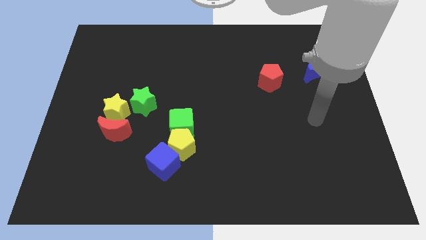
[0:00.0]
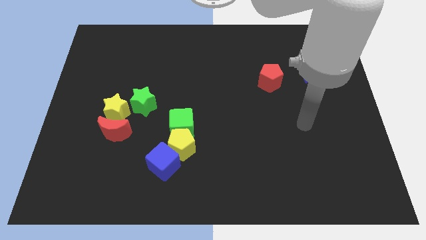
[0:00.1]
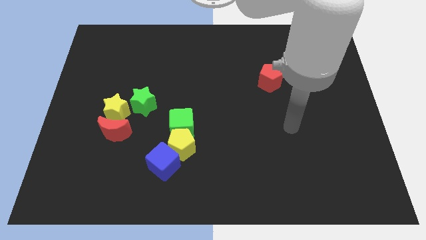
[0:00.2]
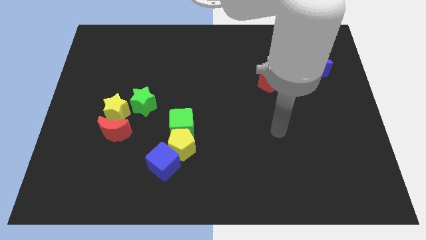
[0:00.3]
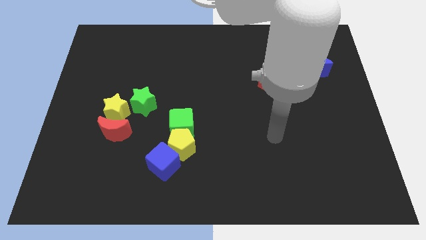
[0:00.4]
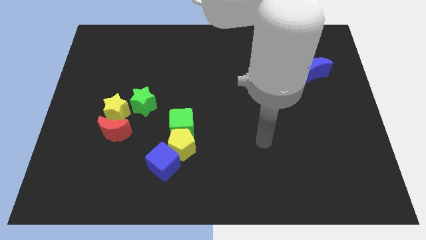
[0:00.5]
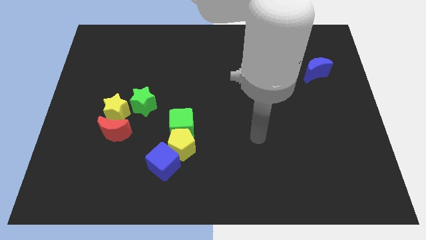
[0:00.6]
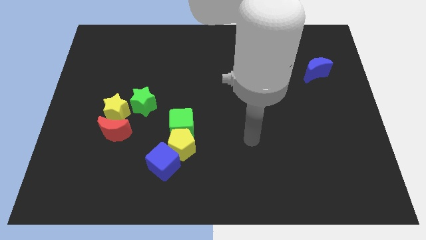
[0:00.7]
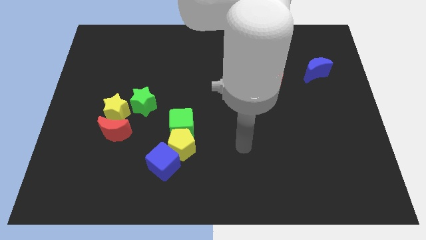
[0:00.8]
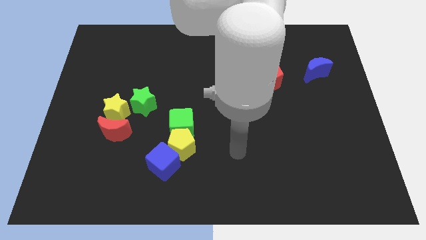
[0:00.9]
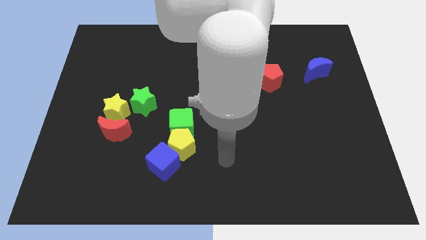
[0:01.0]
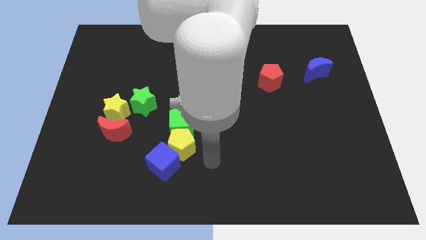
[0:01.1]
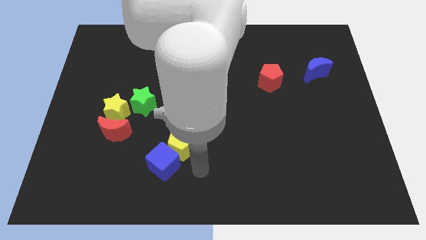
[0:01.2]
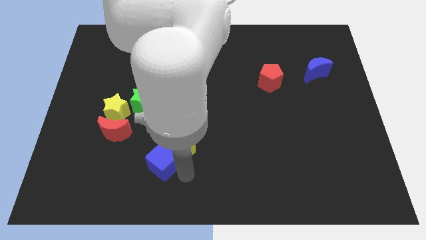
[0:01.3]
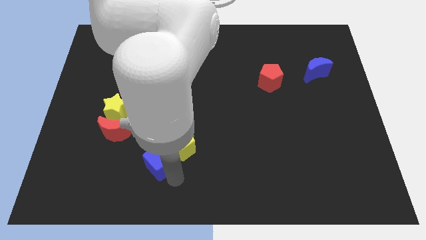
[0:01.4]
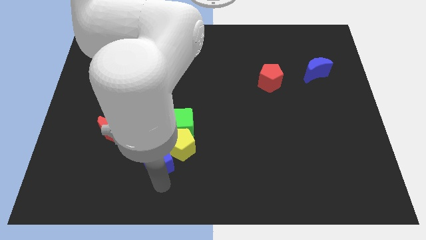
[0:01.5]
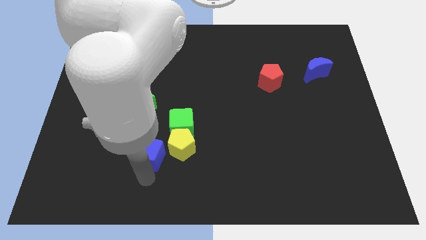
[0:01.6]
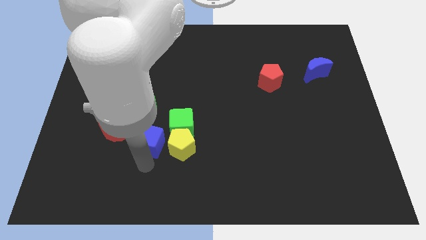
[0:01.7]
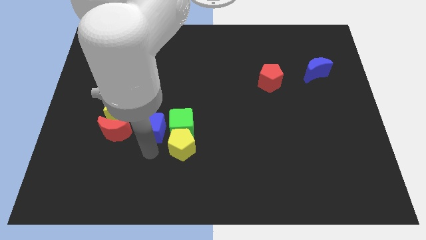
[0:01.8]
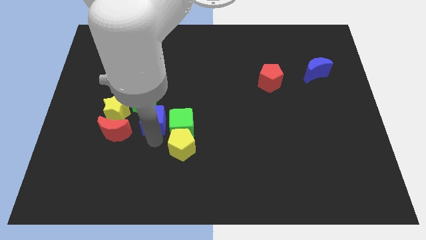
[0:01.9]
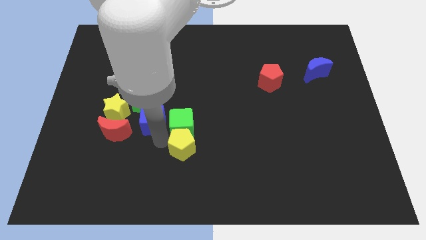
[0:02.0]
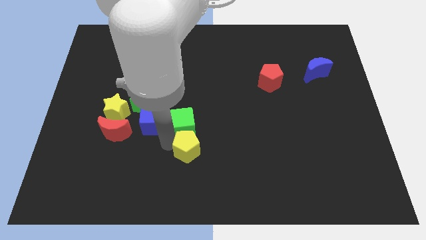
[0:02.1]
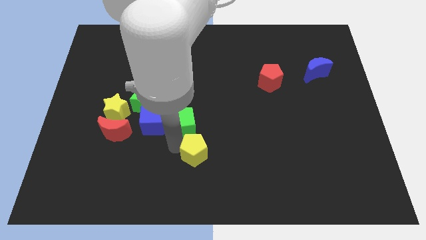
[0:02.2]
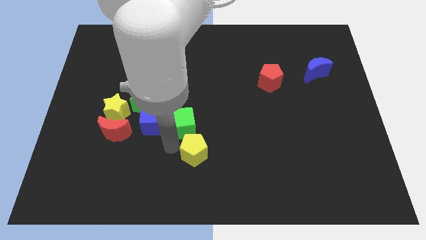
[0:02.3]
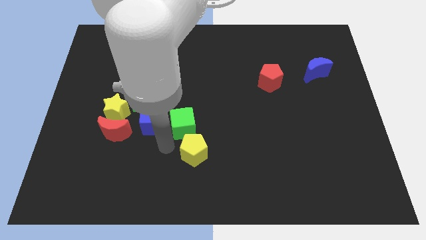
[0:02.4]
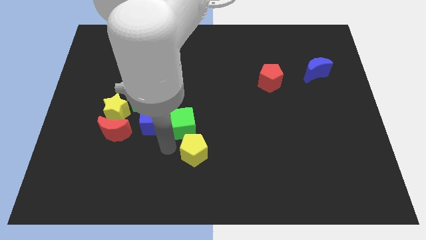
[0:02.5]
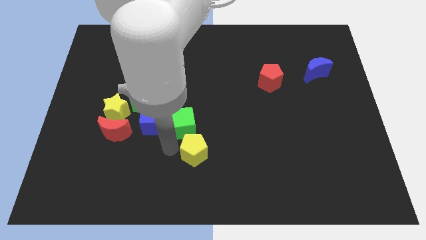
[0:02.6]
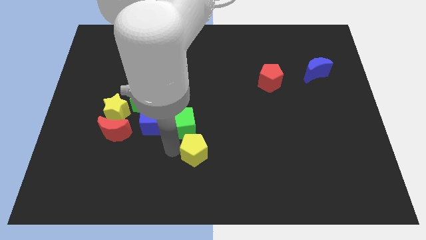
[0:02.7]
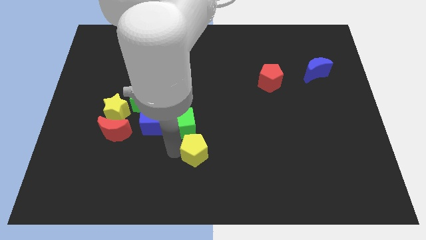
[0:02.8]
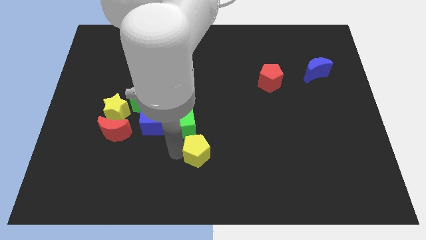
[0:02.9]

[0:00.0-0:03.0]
pull the yellow pentagon apart from the blue cube and green cube

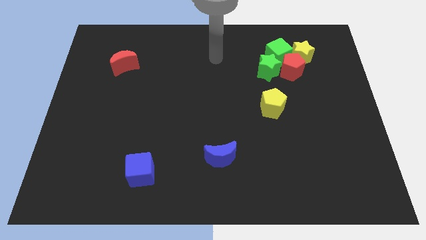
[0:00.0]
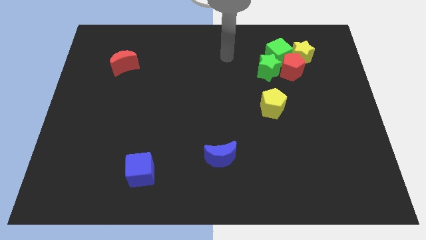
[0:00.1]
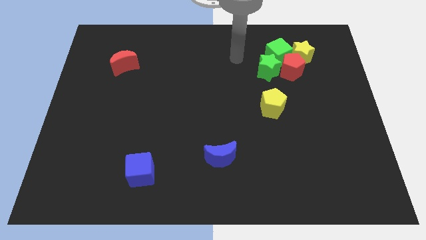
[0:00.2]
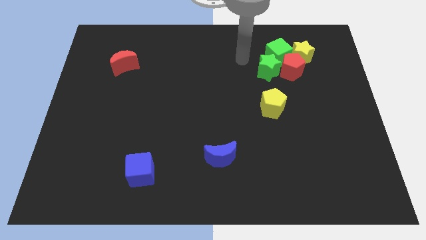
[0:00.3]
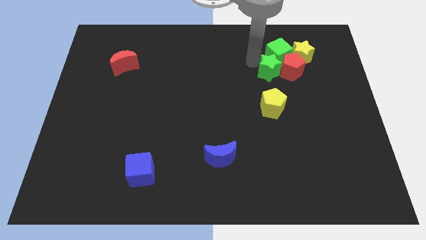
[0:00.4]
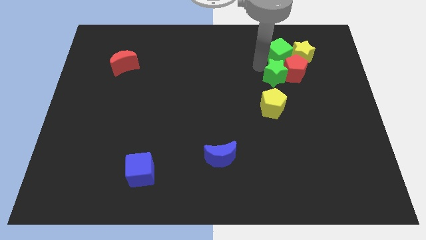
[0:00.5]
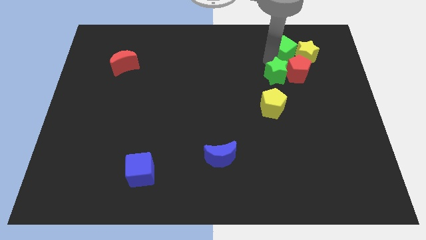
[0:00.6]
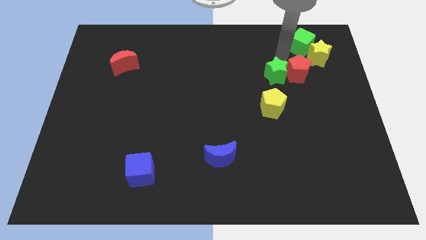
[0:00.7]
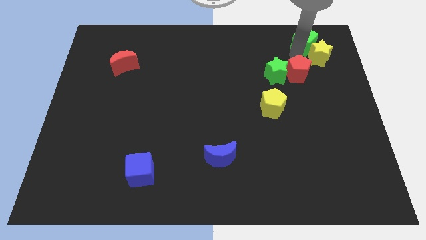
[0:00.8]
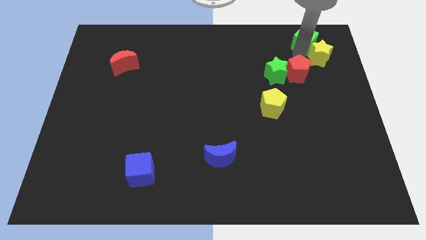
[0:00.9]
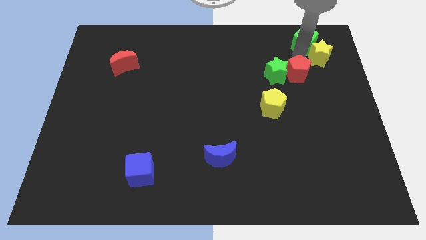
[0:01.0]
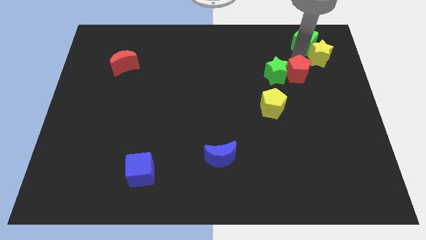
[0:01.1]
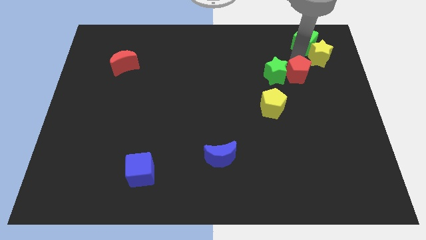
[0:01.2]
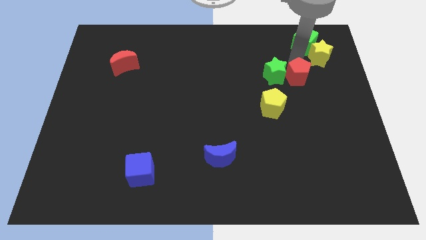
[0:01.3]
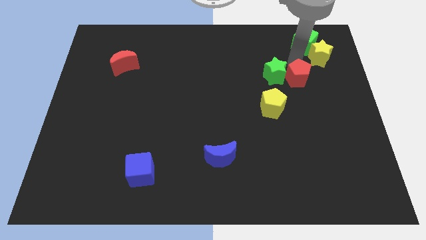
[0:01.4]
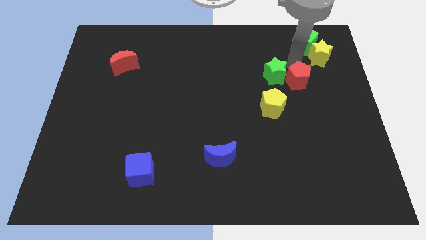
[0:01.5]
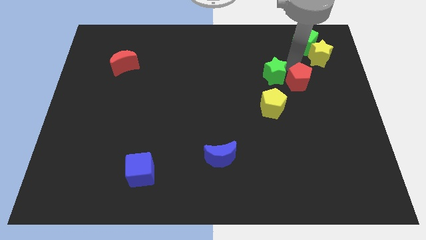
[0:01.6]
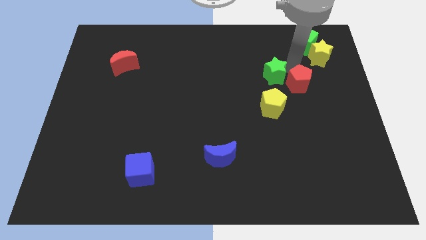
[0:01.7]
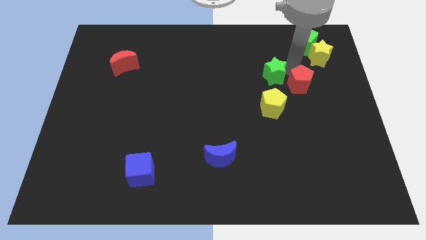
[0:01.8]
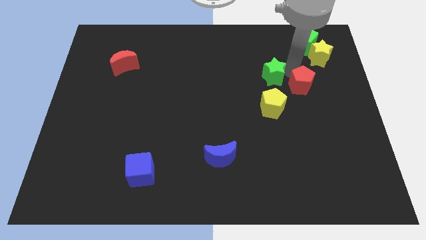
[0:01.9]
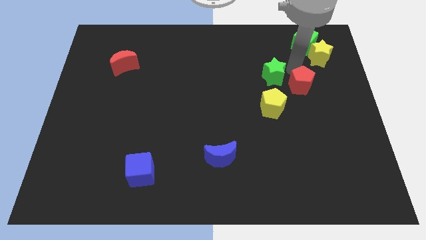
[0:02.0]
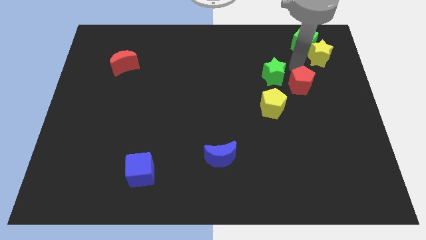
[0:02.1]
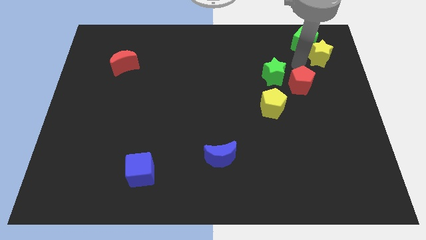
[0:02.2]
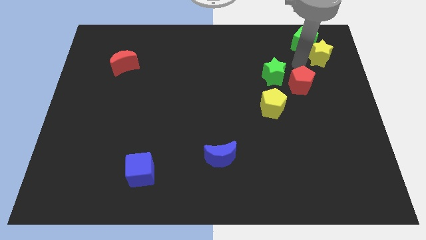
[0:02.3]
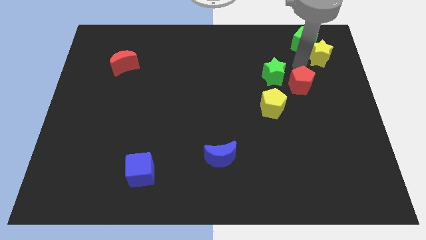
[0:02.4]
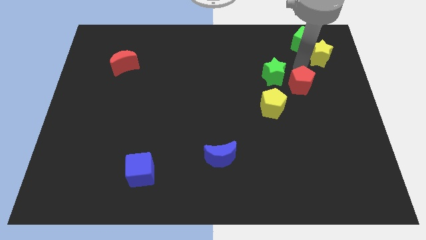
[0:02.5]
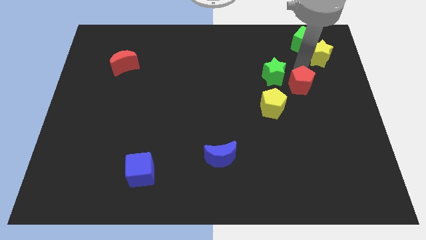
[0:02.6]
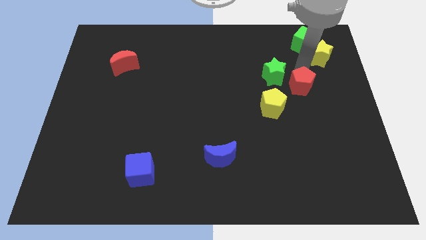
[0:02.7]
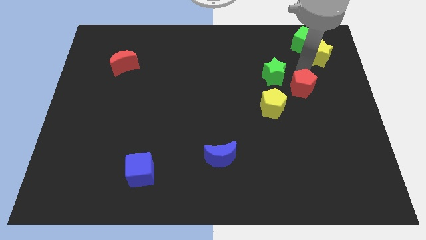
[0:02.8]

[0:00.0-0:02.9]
pull the red pentagon apart from the yellow star, green cube, and green star

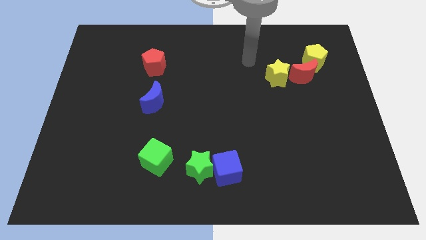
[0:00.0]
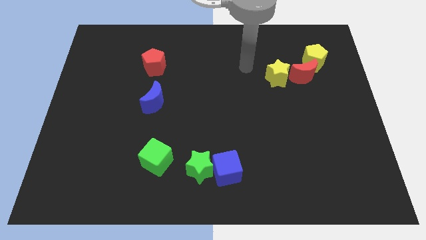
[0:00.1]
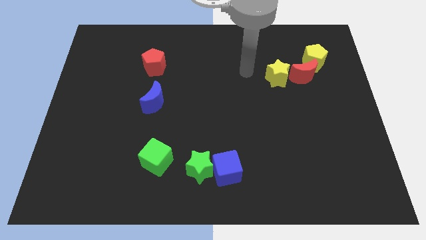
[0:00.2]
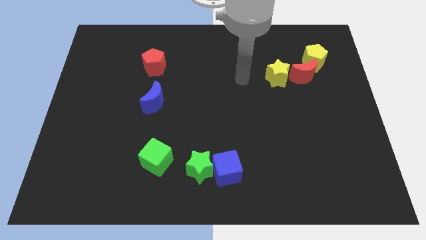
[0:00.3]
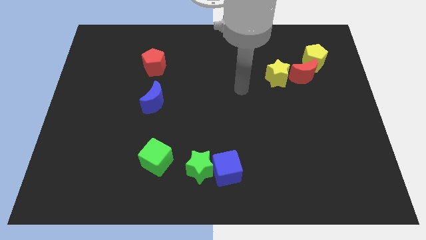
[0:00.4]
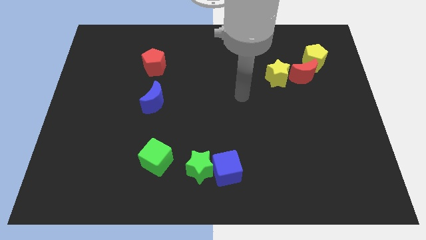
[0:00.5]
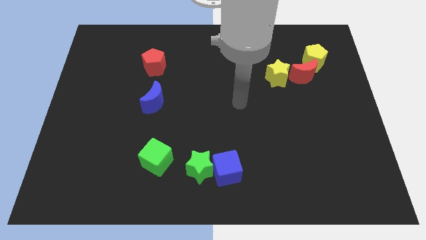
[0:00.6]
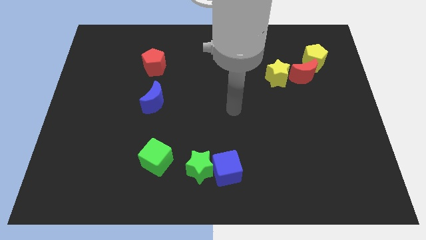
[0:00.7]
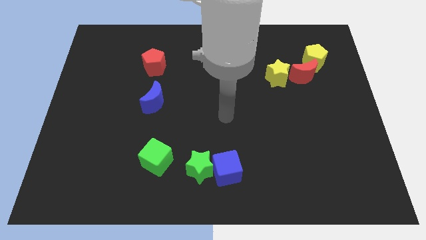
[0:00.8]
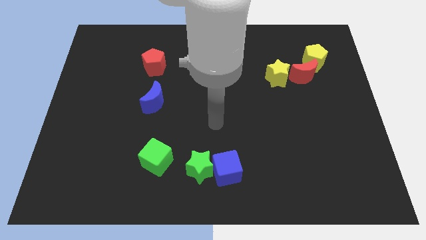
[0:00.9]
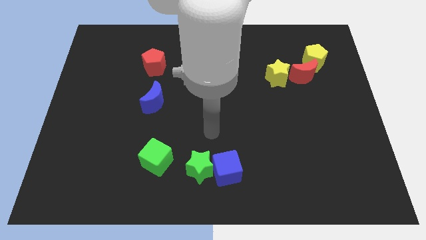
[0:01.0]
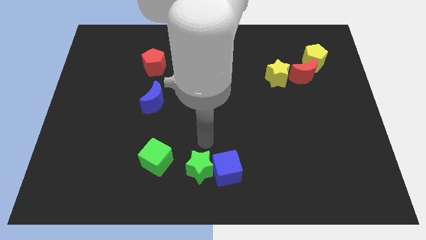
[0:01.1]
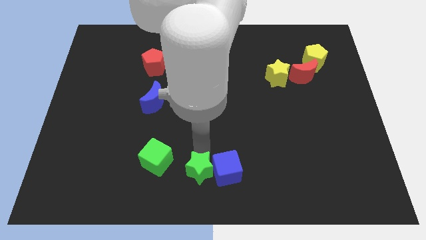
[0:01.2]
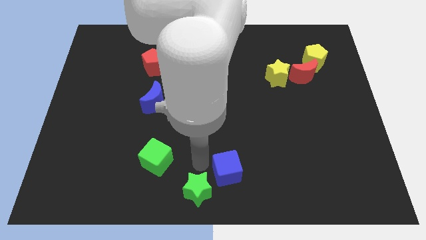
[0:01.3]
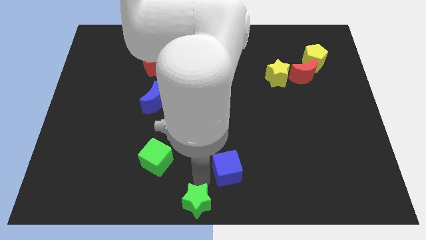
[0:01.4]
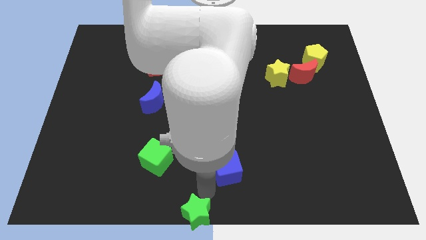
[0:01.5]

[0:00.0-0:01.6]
move the blue cube away from the green star

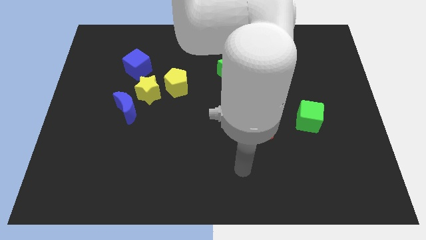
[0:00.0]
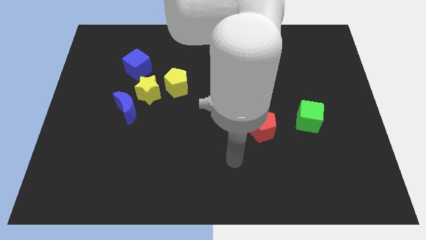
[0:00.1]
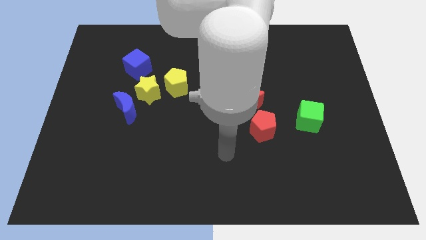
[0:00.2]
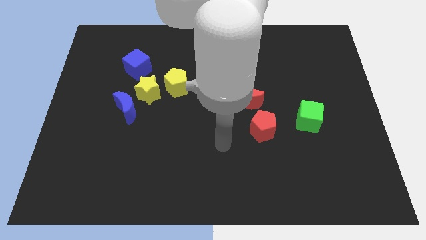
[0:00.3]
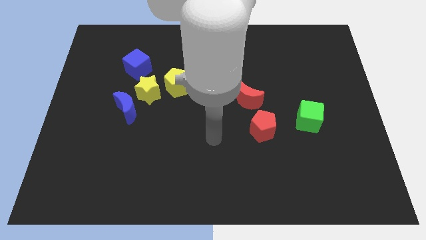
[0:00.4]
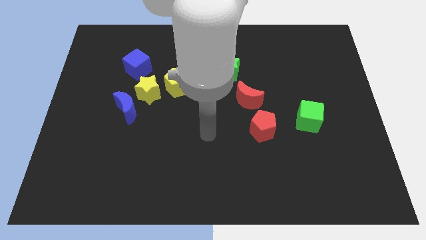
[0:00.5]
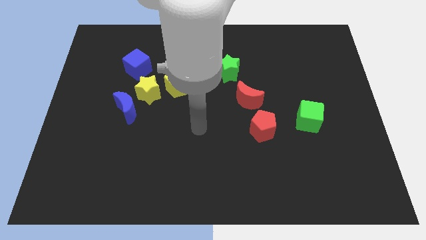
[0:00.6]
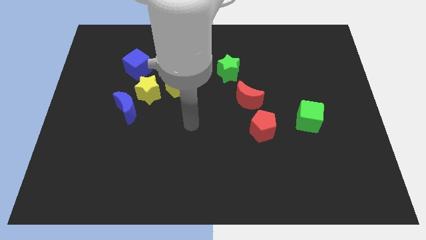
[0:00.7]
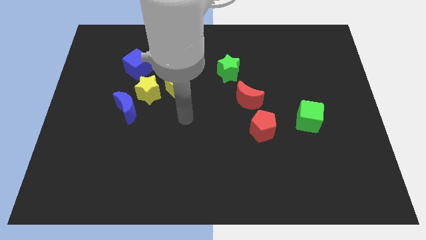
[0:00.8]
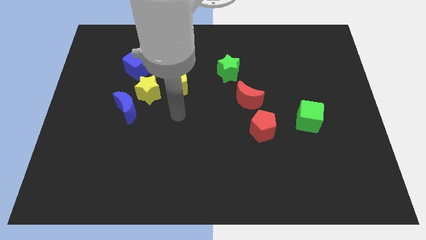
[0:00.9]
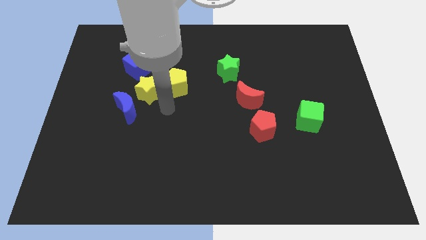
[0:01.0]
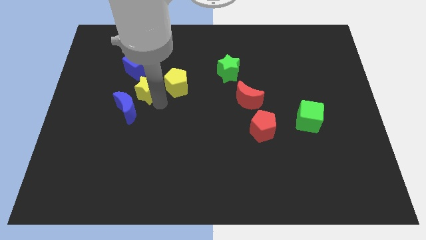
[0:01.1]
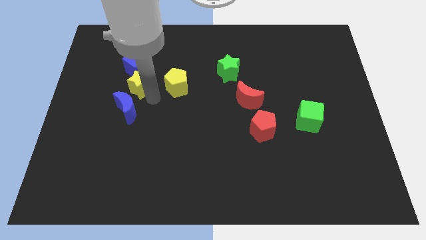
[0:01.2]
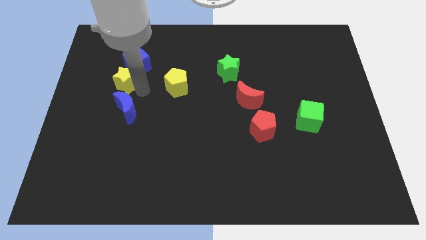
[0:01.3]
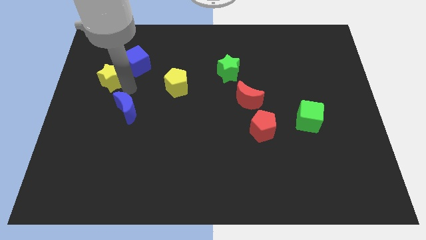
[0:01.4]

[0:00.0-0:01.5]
pull the blue moon apart from the yellow star

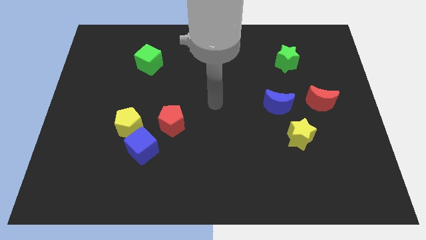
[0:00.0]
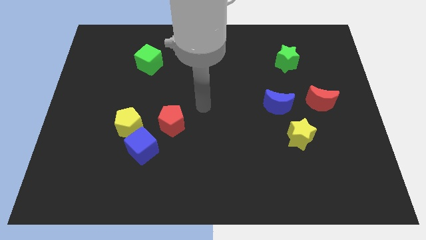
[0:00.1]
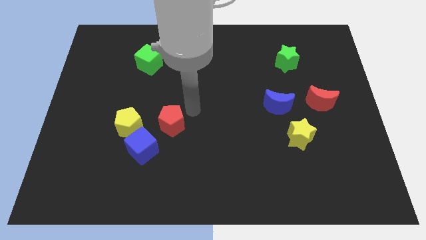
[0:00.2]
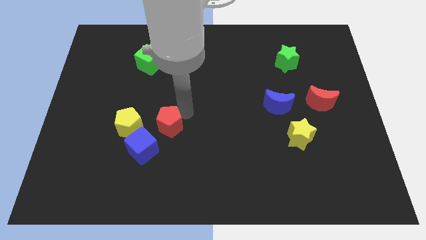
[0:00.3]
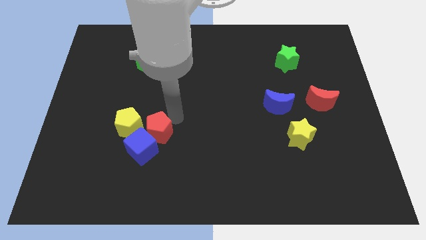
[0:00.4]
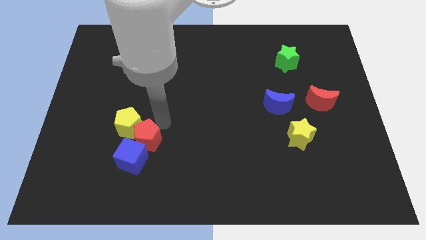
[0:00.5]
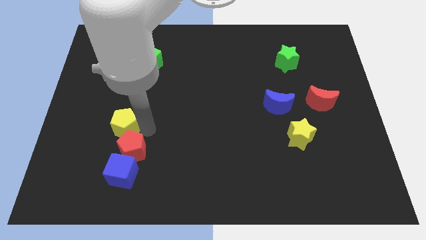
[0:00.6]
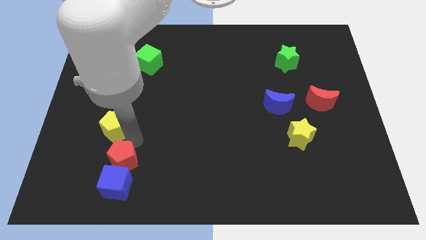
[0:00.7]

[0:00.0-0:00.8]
move the blue cube away from the yellow pentagon and red pentagon